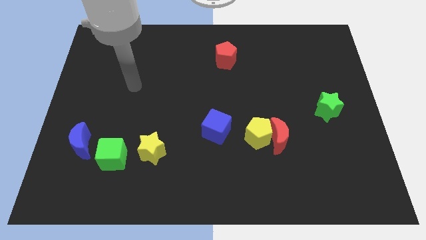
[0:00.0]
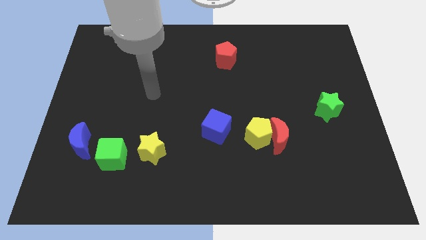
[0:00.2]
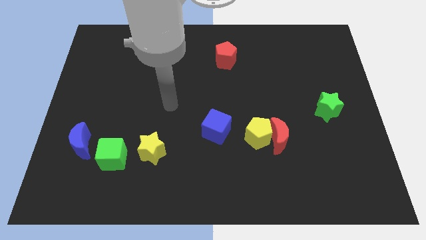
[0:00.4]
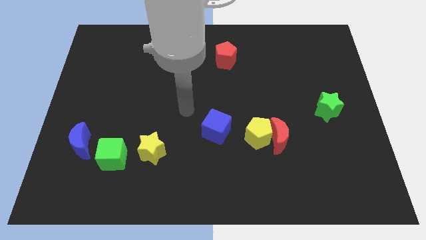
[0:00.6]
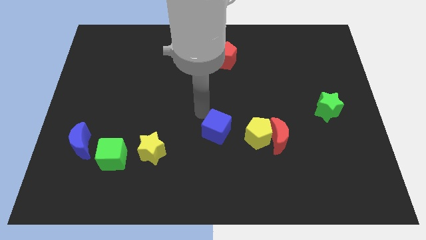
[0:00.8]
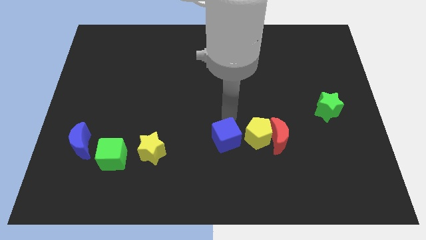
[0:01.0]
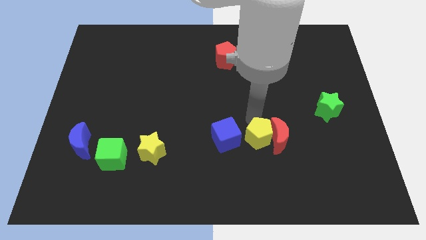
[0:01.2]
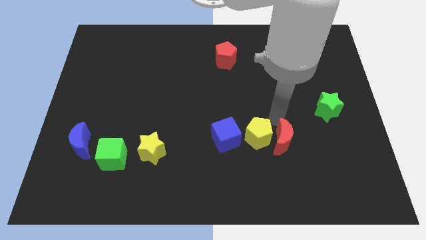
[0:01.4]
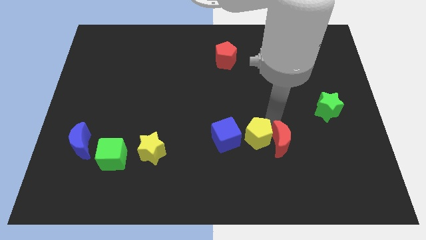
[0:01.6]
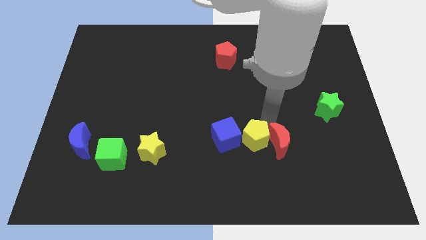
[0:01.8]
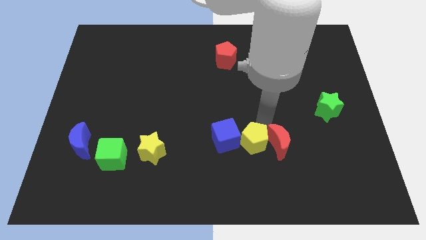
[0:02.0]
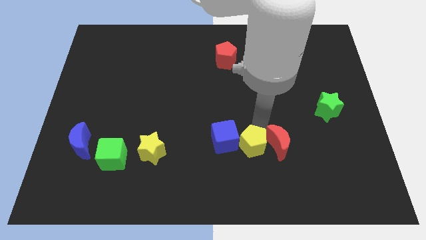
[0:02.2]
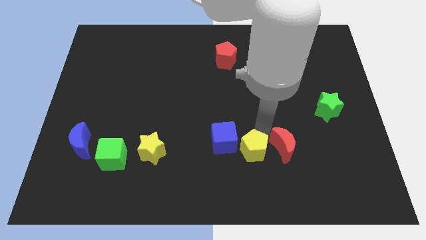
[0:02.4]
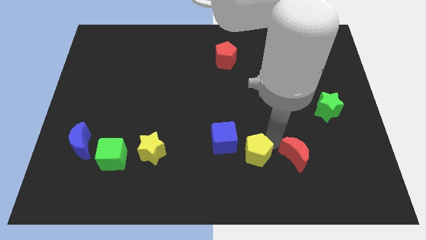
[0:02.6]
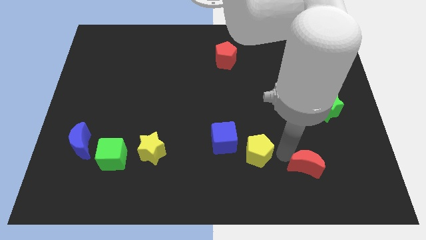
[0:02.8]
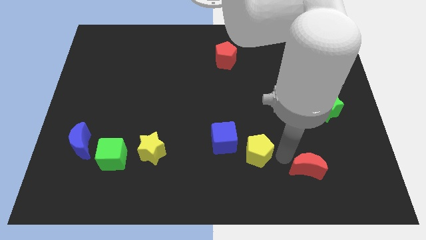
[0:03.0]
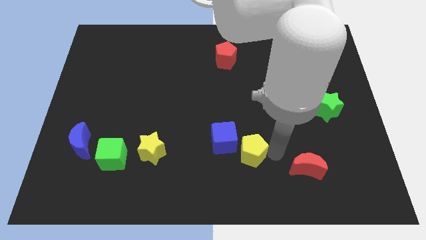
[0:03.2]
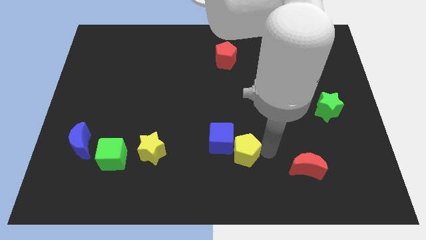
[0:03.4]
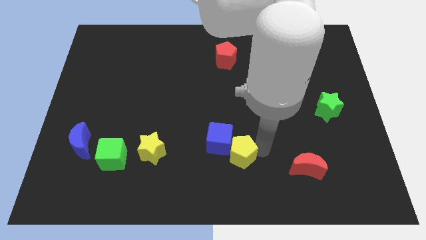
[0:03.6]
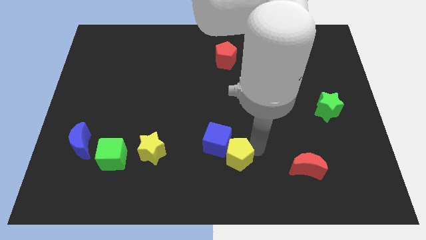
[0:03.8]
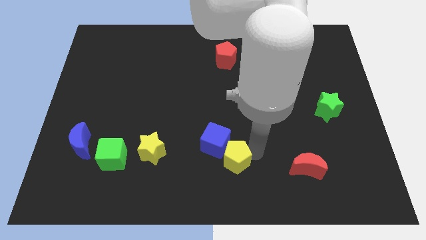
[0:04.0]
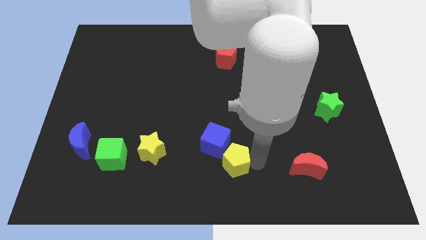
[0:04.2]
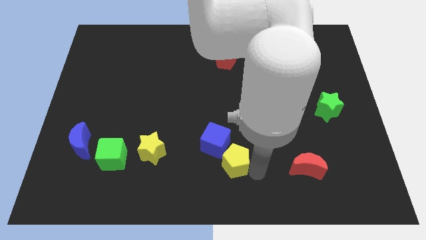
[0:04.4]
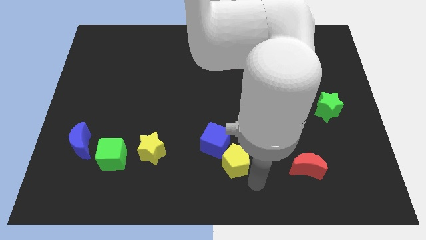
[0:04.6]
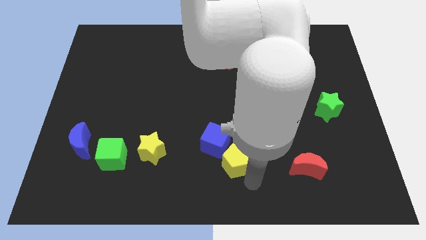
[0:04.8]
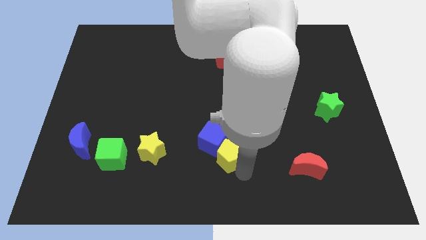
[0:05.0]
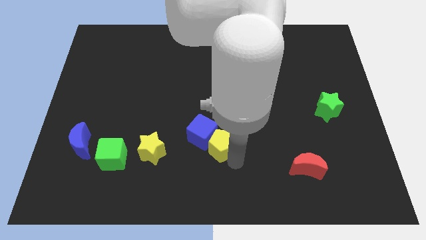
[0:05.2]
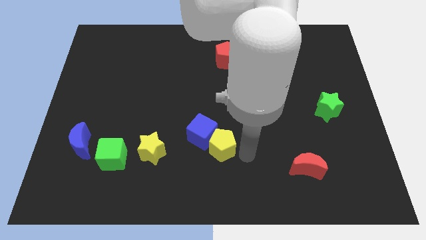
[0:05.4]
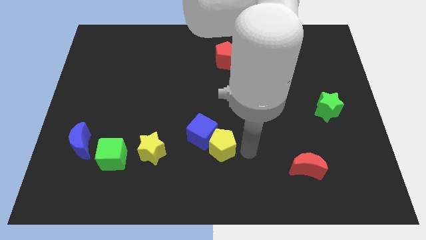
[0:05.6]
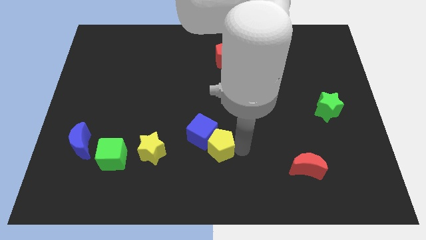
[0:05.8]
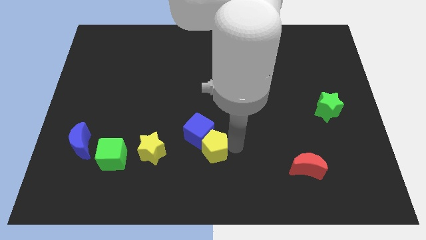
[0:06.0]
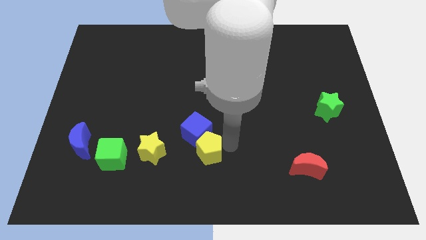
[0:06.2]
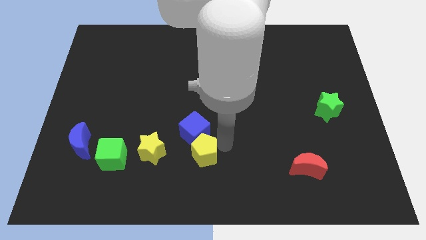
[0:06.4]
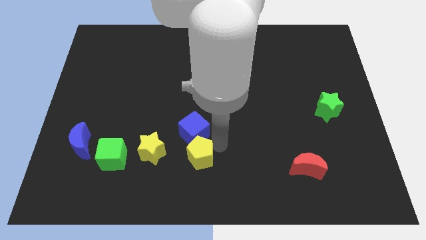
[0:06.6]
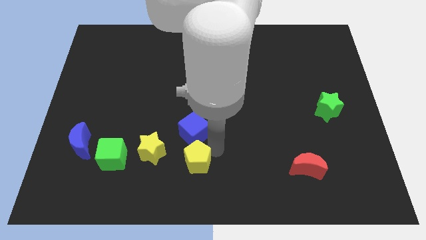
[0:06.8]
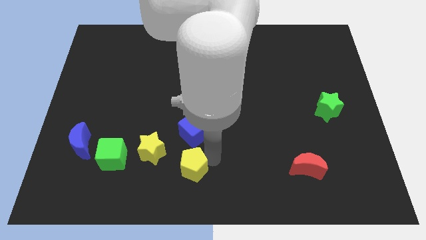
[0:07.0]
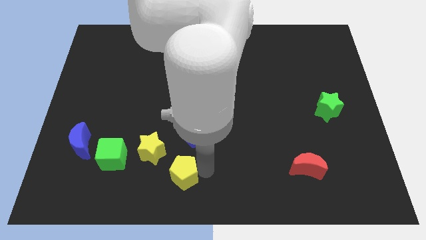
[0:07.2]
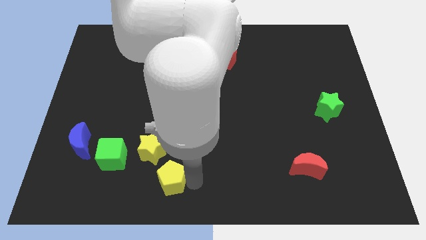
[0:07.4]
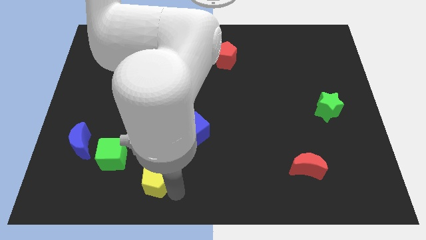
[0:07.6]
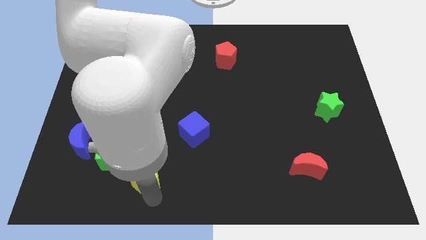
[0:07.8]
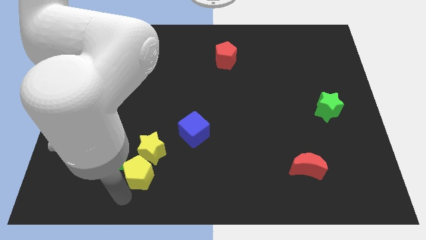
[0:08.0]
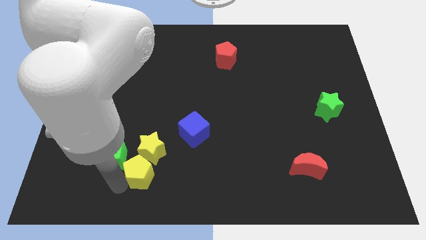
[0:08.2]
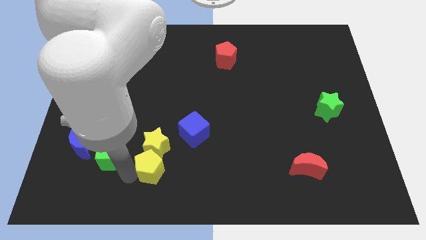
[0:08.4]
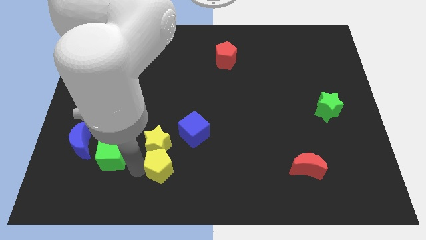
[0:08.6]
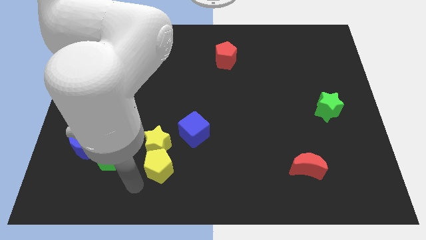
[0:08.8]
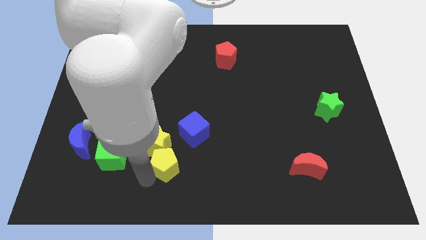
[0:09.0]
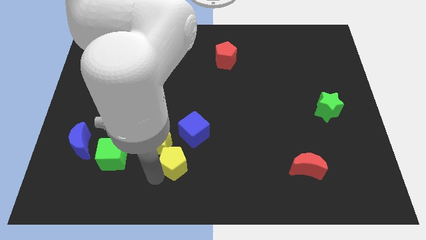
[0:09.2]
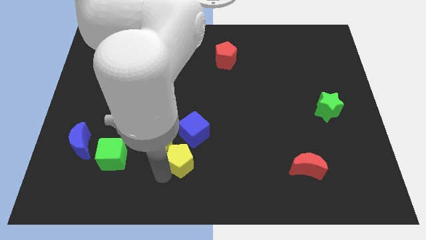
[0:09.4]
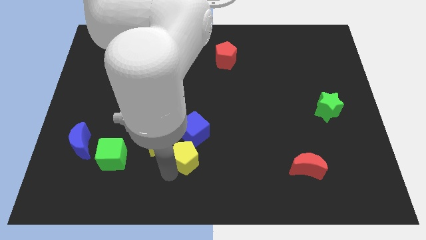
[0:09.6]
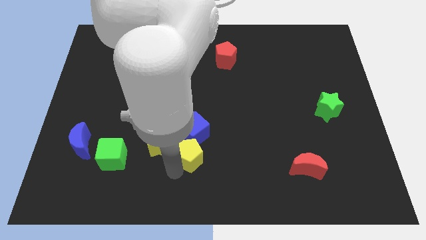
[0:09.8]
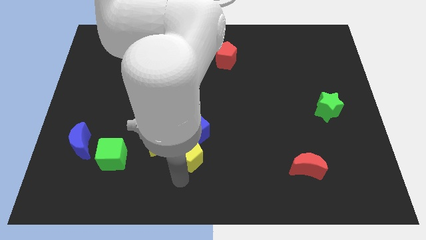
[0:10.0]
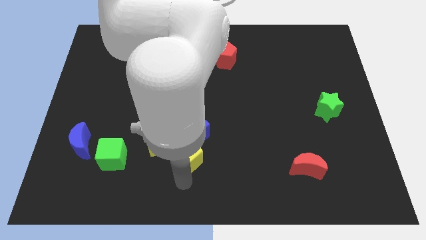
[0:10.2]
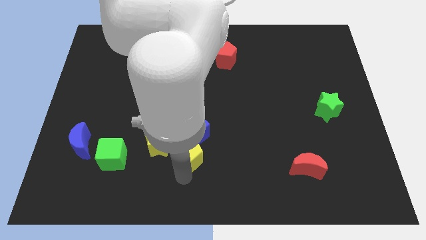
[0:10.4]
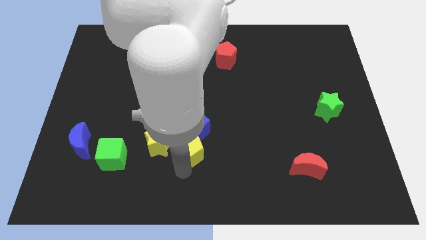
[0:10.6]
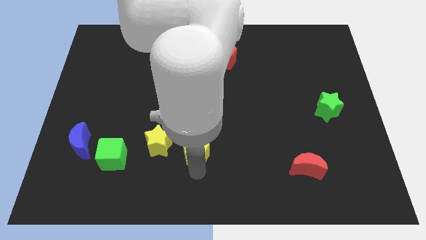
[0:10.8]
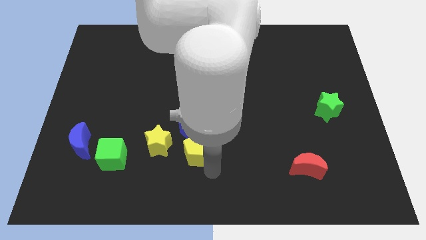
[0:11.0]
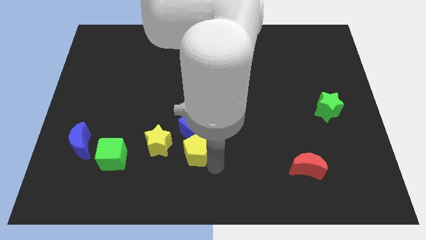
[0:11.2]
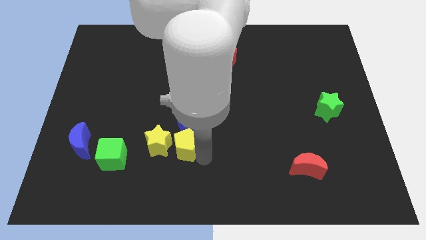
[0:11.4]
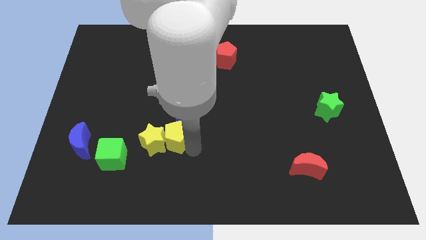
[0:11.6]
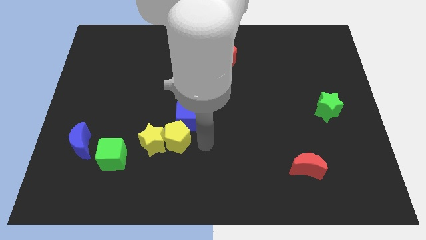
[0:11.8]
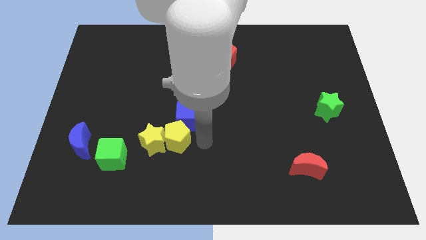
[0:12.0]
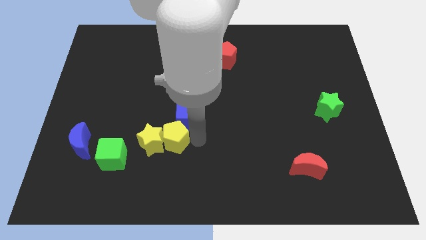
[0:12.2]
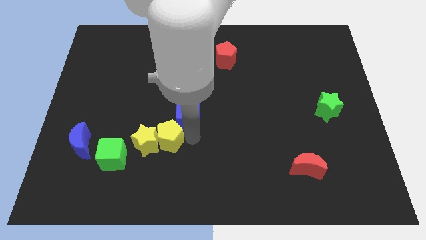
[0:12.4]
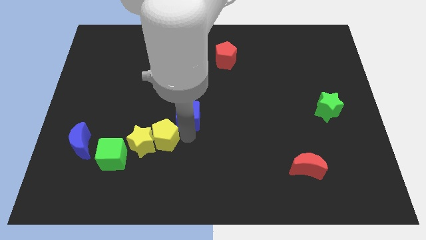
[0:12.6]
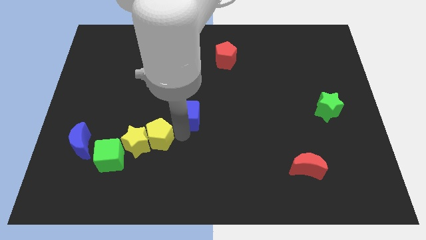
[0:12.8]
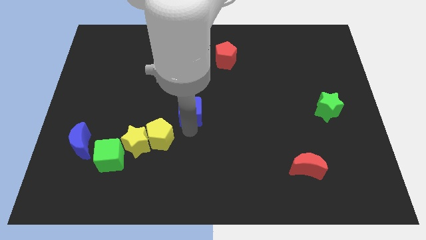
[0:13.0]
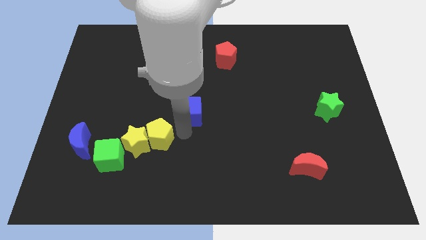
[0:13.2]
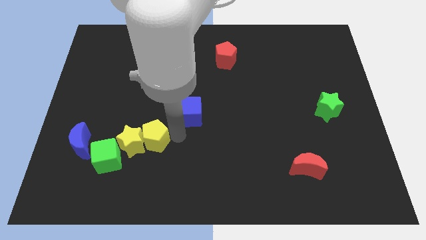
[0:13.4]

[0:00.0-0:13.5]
slide the yellow pentagon to the right side of the blue moon
